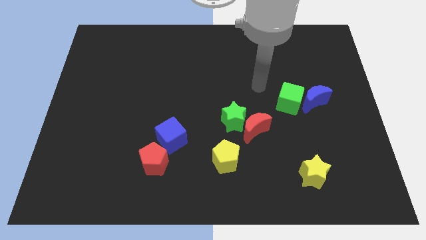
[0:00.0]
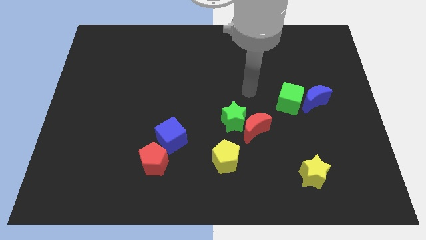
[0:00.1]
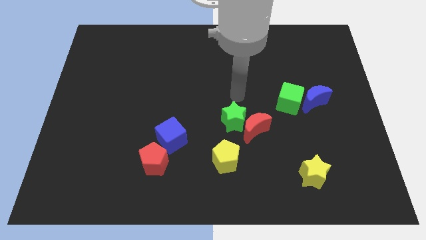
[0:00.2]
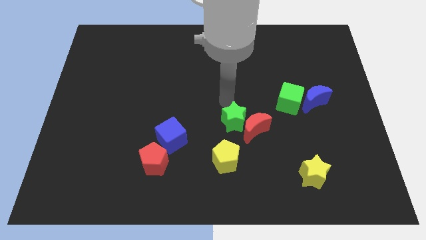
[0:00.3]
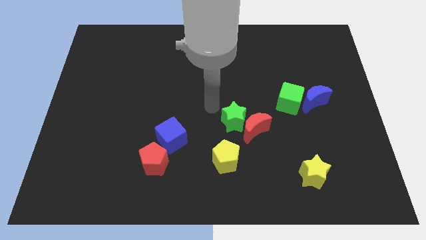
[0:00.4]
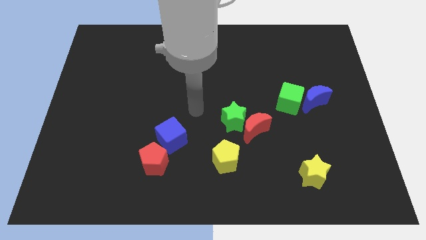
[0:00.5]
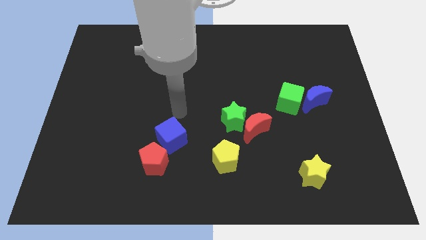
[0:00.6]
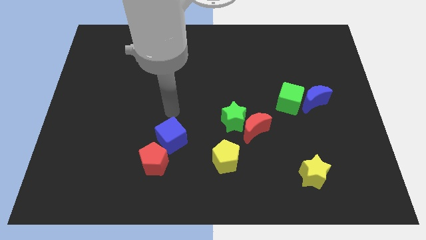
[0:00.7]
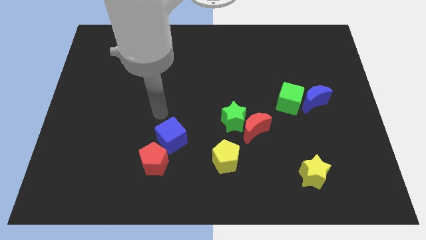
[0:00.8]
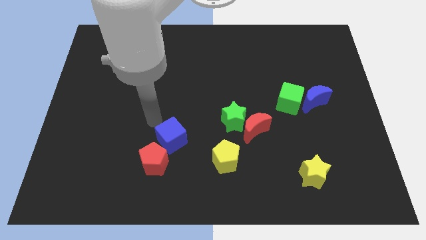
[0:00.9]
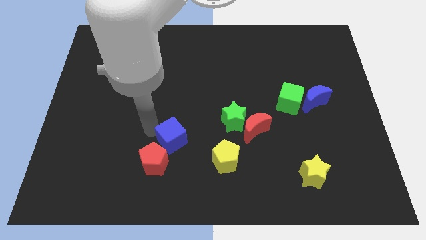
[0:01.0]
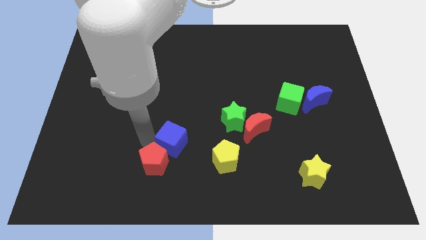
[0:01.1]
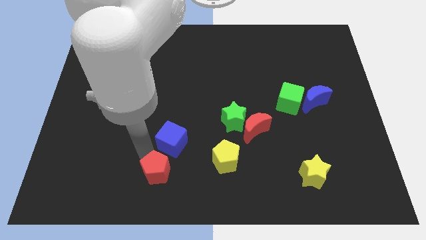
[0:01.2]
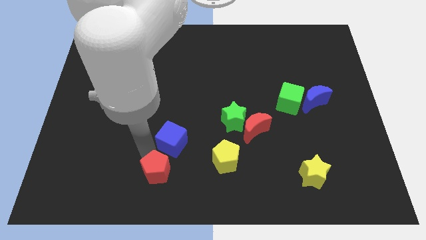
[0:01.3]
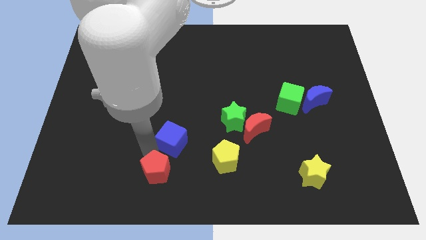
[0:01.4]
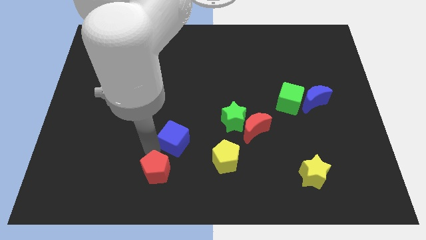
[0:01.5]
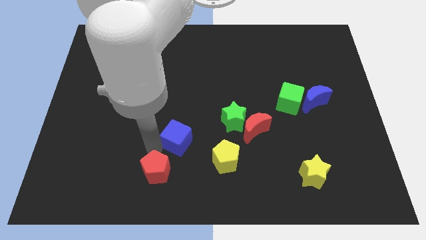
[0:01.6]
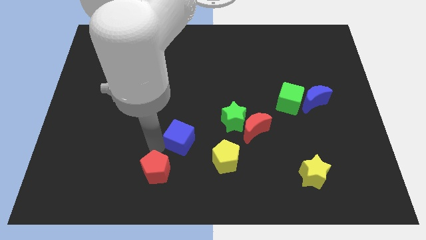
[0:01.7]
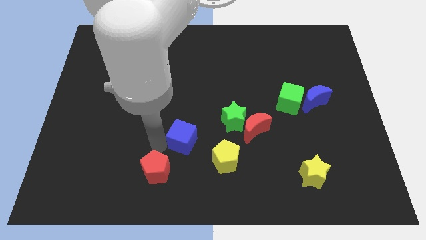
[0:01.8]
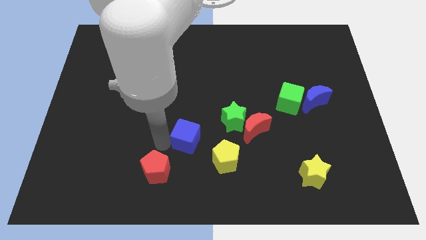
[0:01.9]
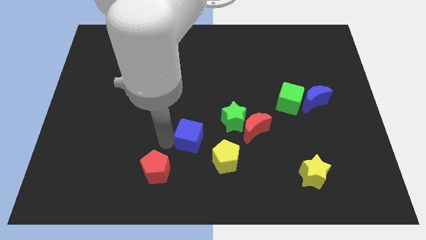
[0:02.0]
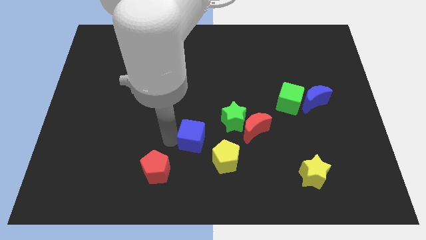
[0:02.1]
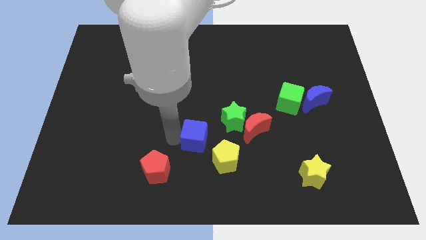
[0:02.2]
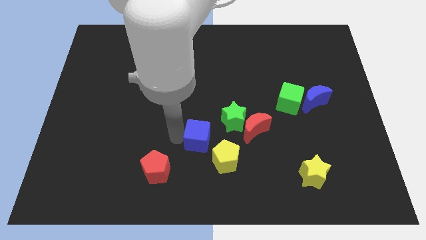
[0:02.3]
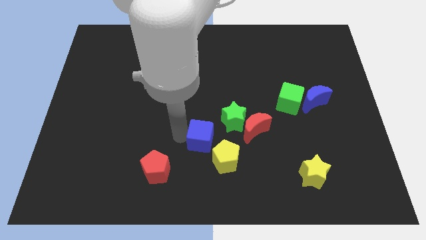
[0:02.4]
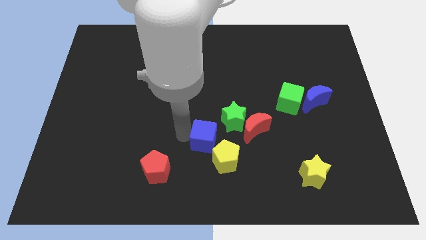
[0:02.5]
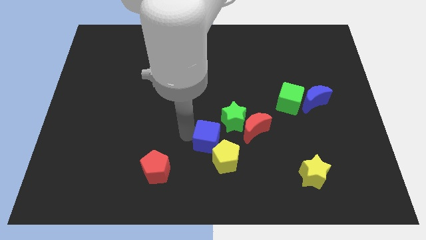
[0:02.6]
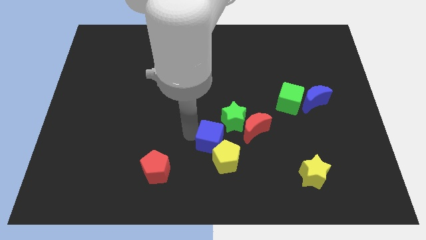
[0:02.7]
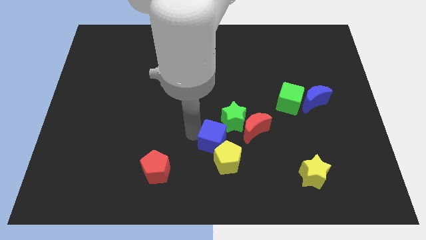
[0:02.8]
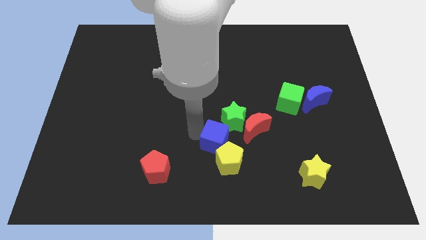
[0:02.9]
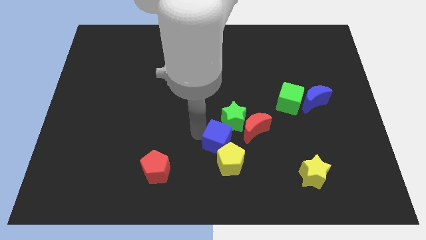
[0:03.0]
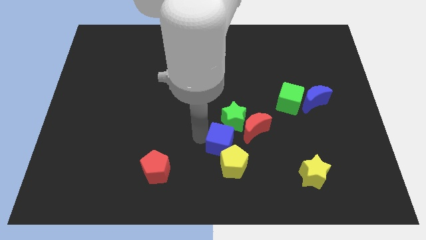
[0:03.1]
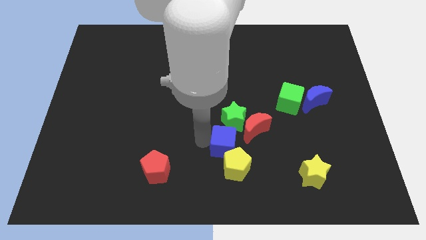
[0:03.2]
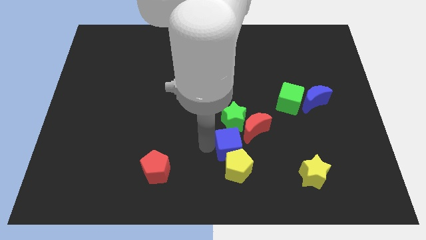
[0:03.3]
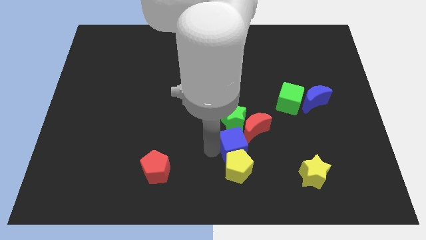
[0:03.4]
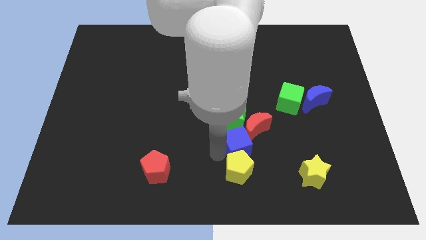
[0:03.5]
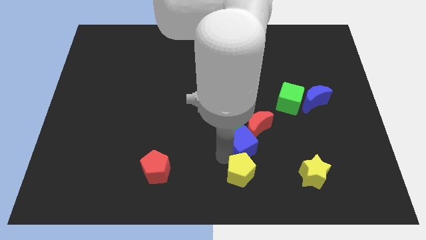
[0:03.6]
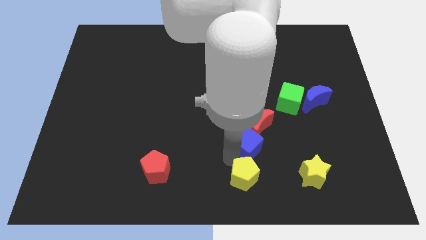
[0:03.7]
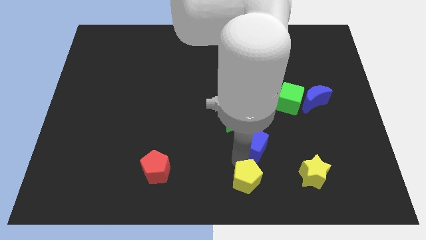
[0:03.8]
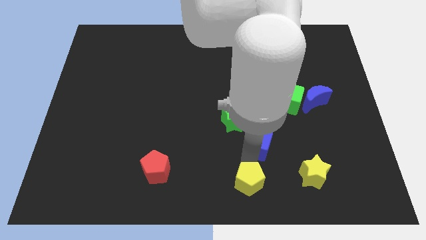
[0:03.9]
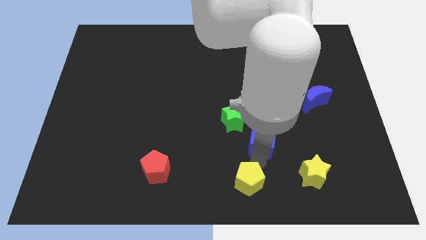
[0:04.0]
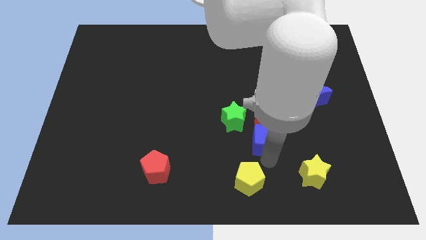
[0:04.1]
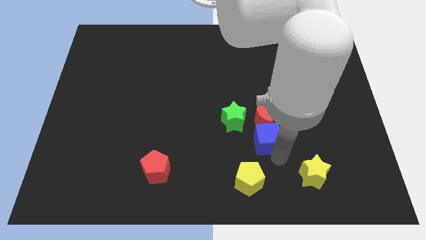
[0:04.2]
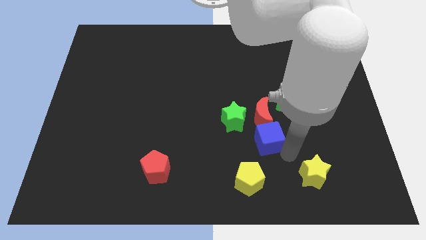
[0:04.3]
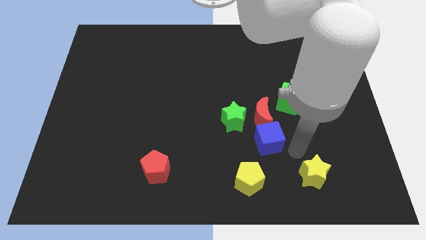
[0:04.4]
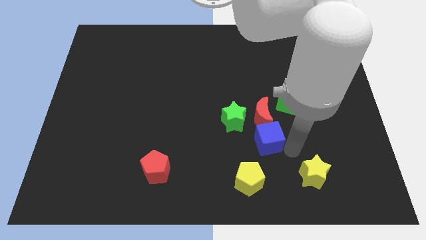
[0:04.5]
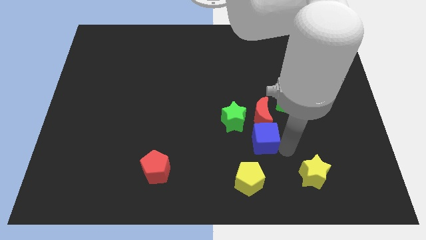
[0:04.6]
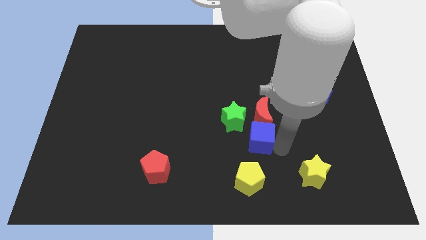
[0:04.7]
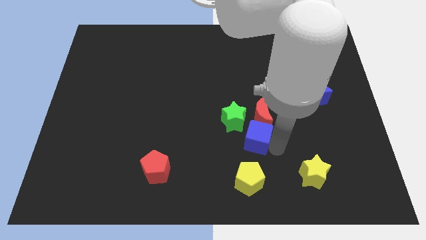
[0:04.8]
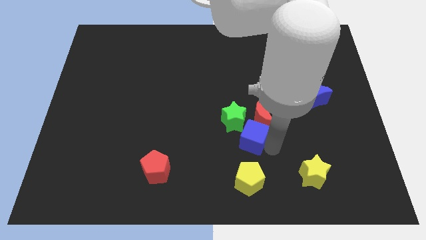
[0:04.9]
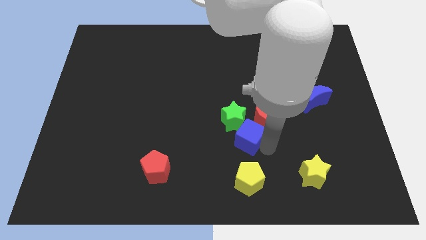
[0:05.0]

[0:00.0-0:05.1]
move the blue cube next to the green star

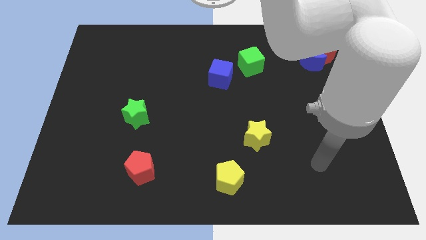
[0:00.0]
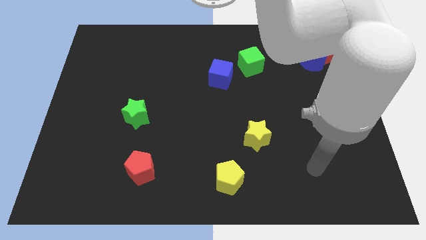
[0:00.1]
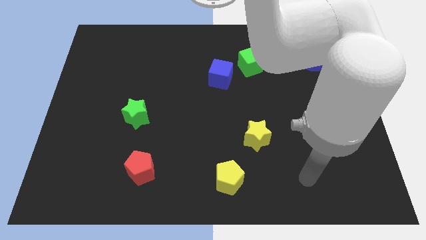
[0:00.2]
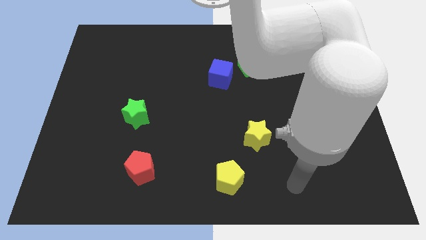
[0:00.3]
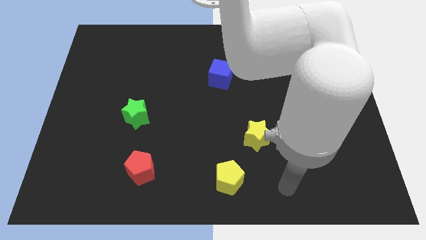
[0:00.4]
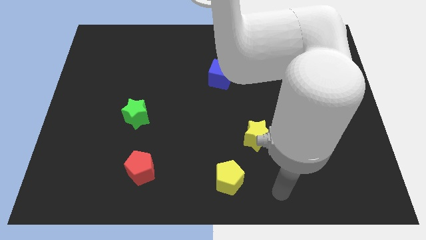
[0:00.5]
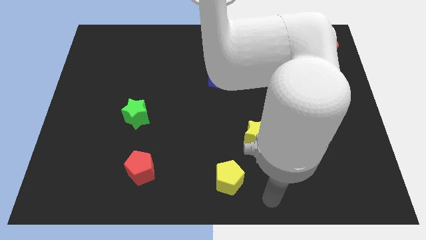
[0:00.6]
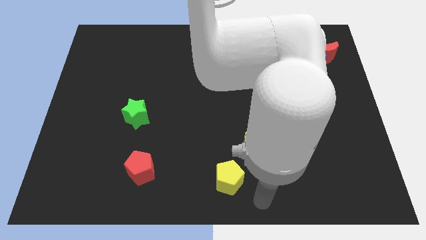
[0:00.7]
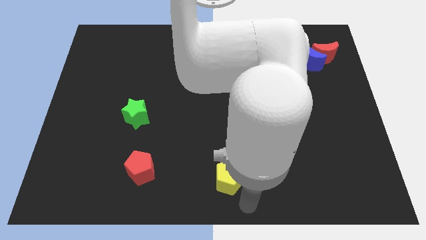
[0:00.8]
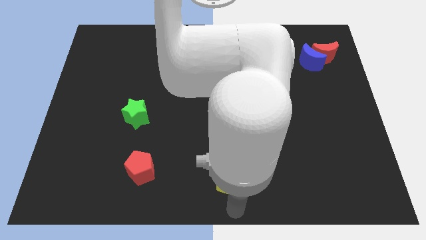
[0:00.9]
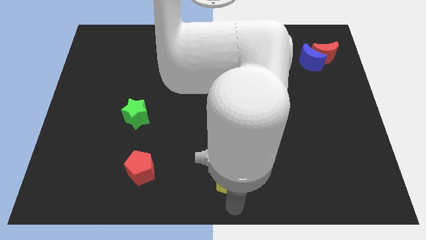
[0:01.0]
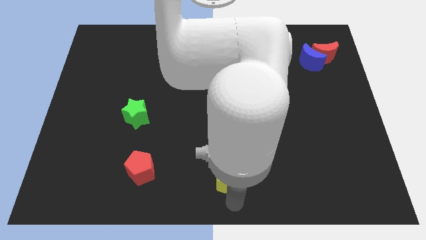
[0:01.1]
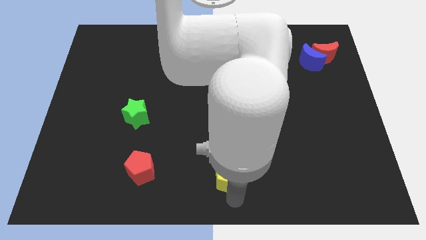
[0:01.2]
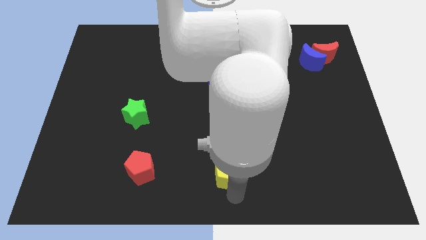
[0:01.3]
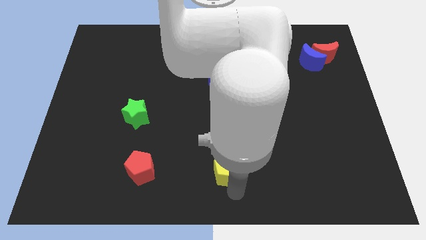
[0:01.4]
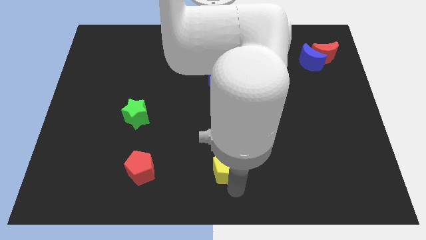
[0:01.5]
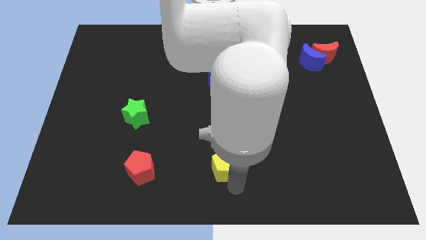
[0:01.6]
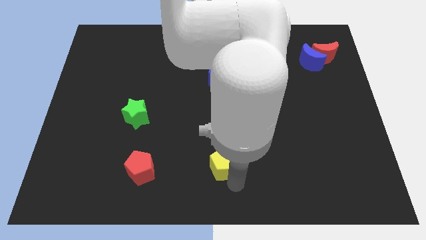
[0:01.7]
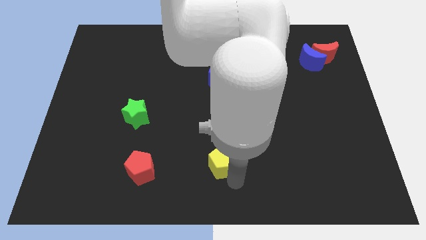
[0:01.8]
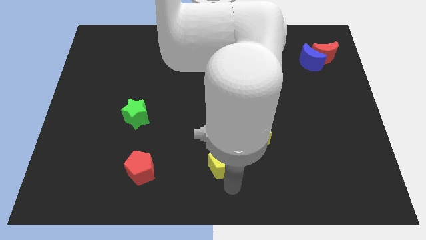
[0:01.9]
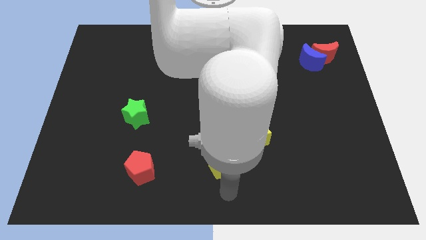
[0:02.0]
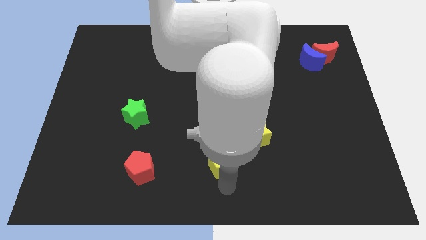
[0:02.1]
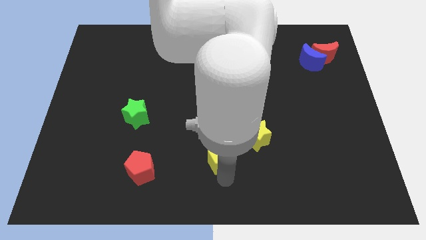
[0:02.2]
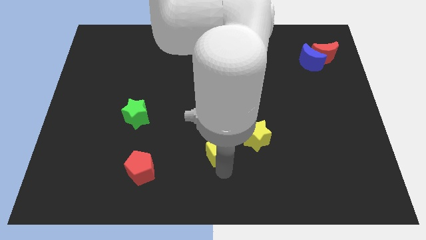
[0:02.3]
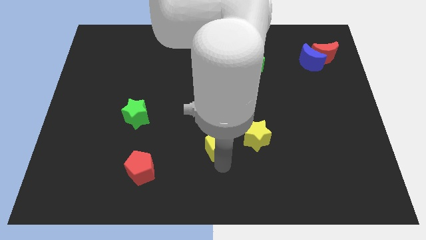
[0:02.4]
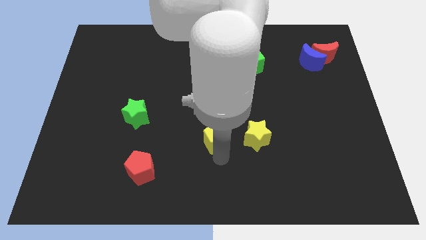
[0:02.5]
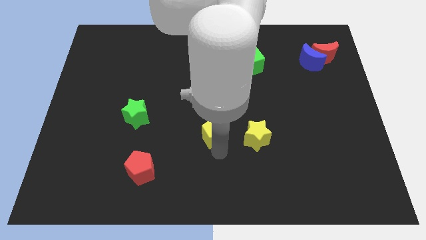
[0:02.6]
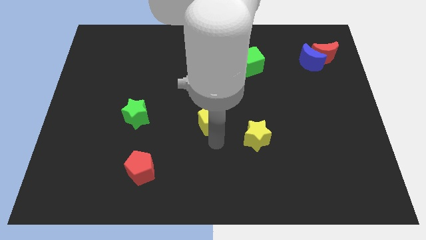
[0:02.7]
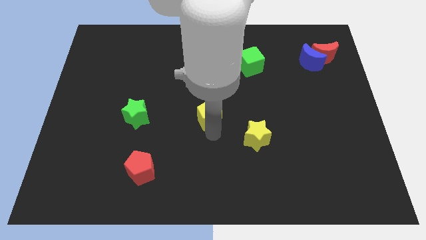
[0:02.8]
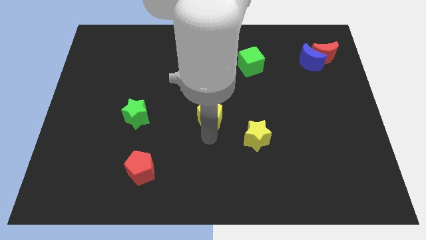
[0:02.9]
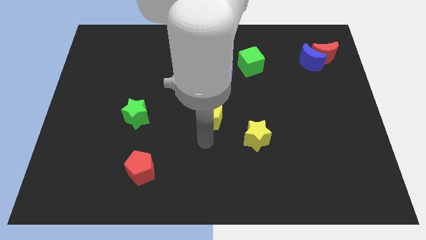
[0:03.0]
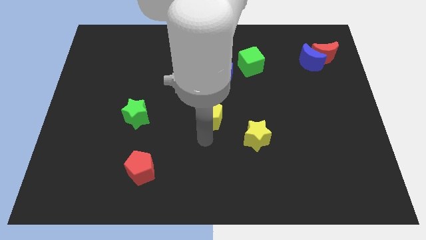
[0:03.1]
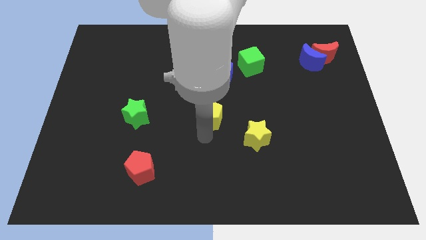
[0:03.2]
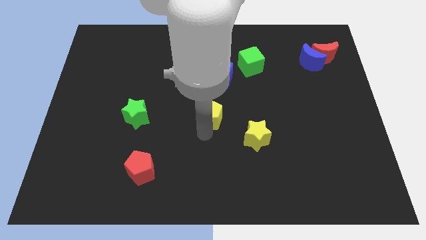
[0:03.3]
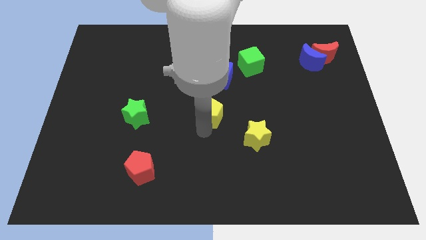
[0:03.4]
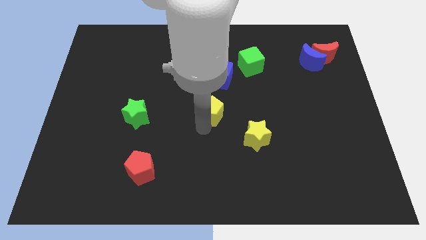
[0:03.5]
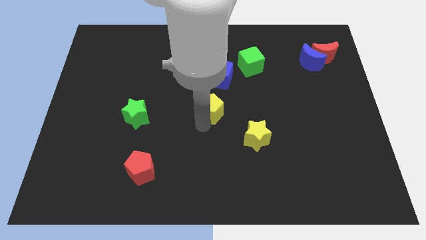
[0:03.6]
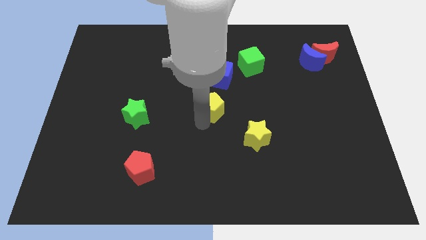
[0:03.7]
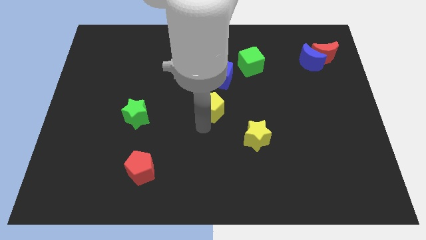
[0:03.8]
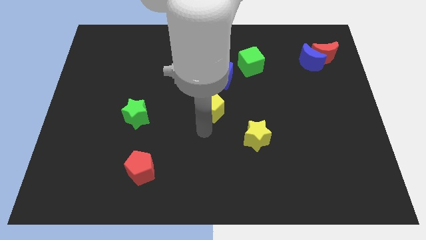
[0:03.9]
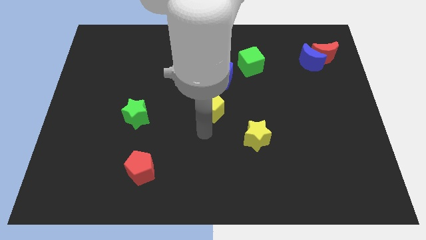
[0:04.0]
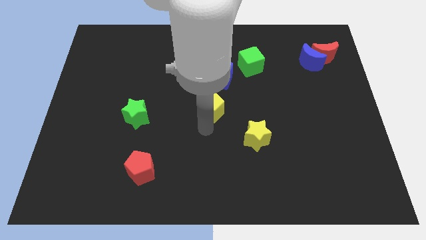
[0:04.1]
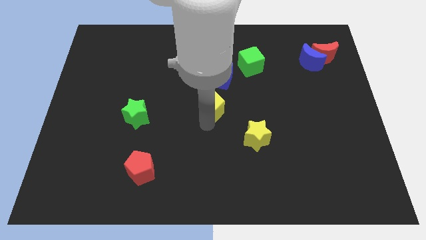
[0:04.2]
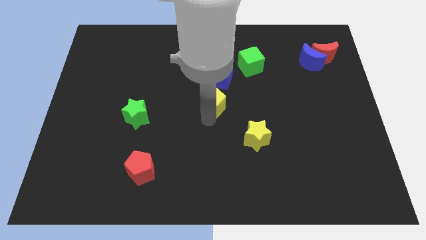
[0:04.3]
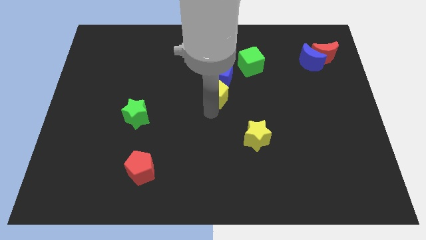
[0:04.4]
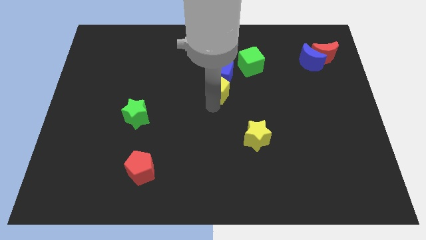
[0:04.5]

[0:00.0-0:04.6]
slide the yellow pentagon close to the blue cube
